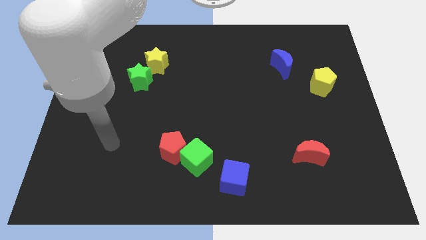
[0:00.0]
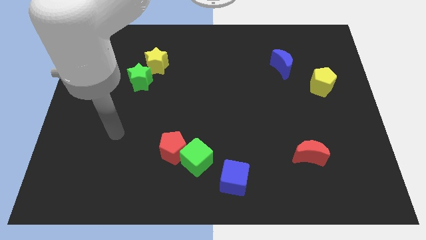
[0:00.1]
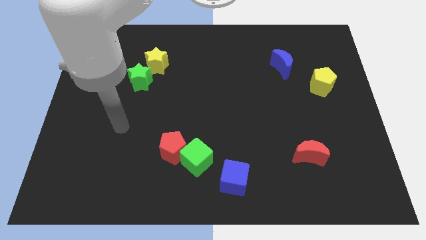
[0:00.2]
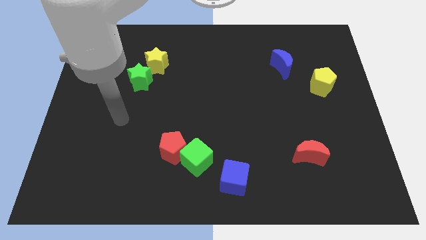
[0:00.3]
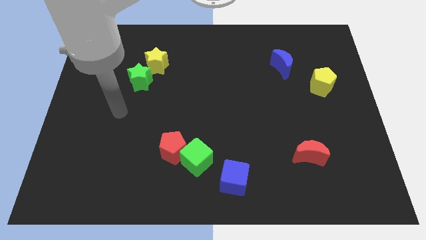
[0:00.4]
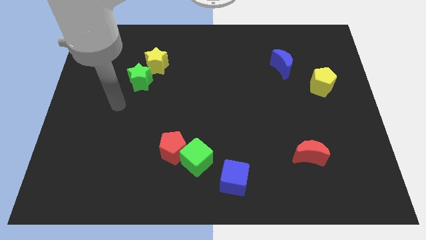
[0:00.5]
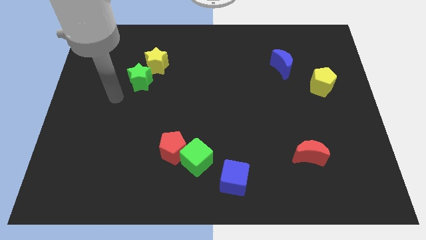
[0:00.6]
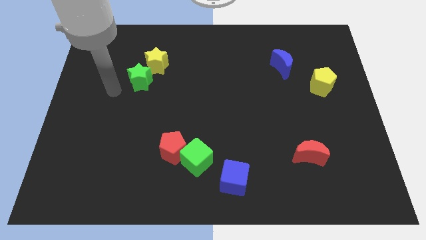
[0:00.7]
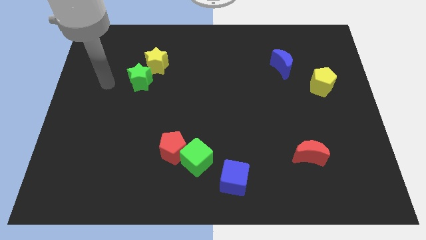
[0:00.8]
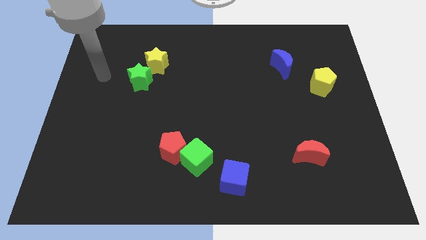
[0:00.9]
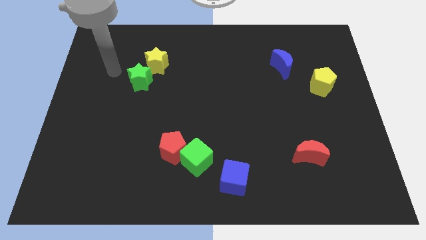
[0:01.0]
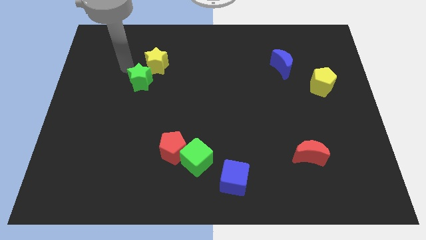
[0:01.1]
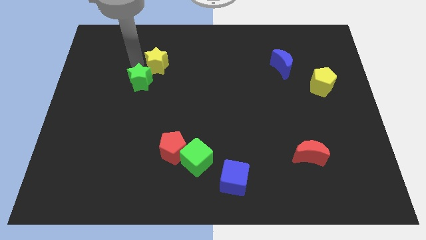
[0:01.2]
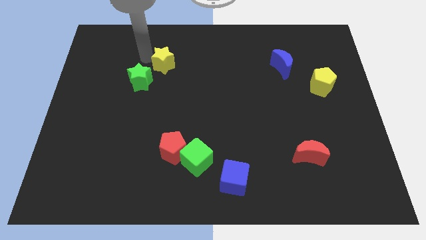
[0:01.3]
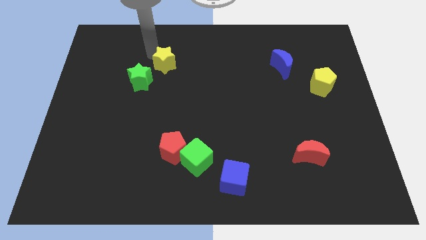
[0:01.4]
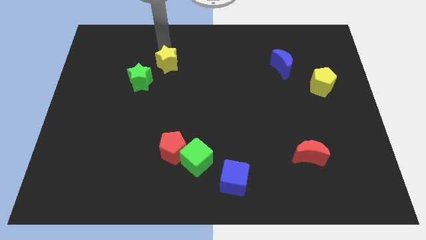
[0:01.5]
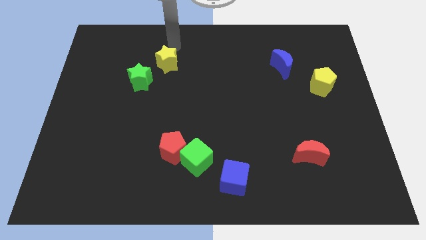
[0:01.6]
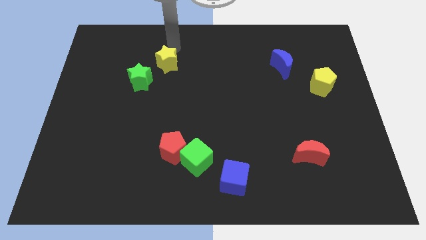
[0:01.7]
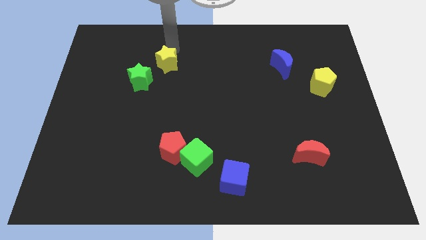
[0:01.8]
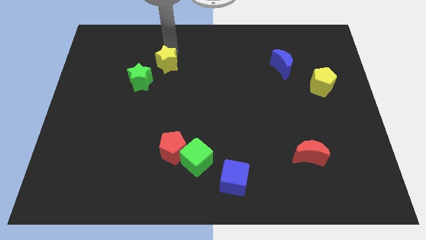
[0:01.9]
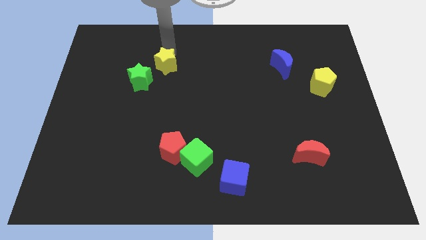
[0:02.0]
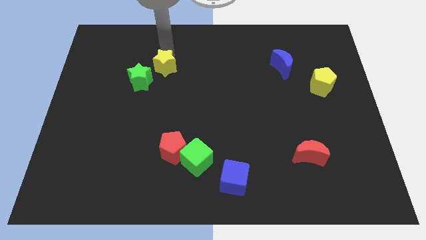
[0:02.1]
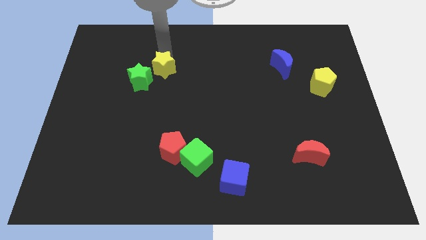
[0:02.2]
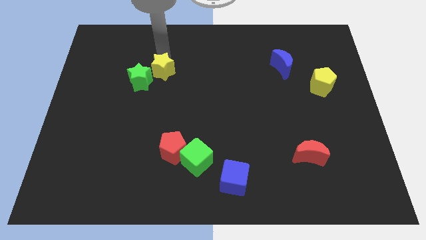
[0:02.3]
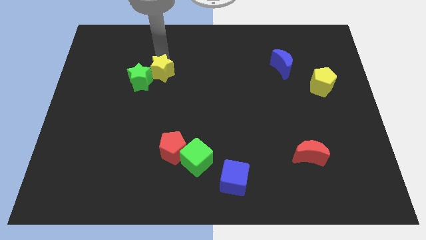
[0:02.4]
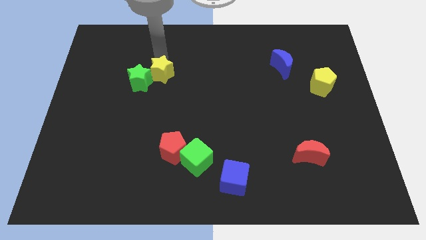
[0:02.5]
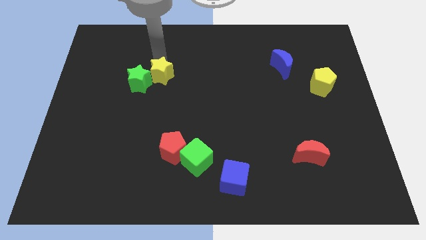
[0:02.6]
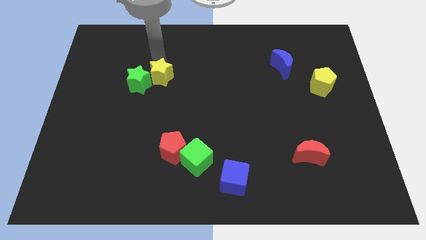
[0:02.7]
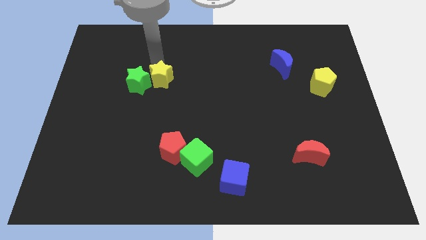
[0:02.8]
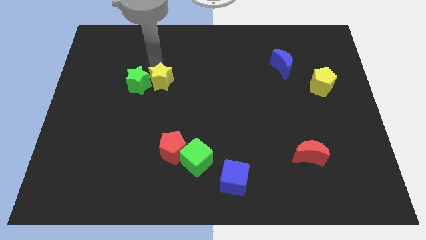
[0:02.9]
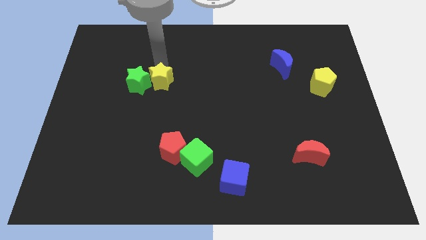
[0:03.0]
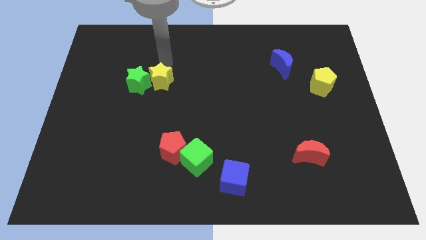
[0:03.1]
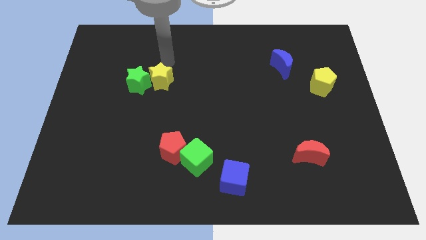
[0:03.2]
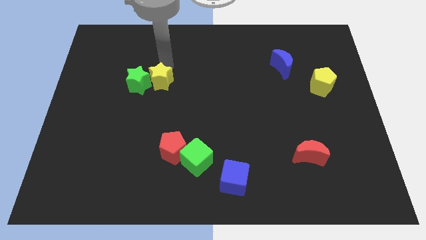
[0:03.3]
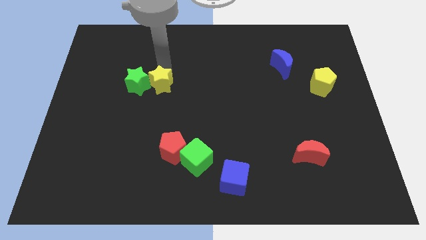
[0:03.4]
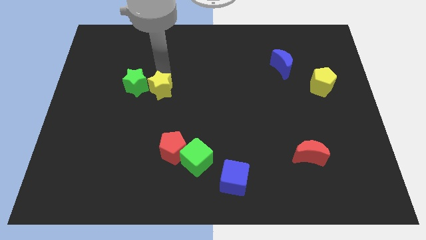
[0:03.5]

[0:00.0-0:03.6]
push the yellow star a bit down

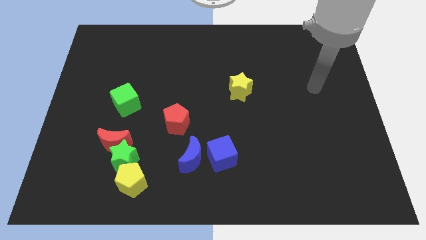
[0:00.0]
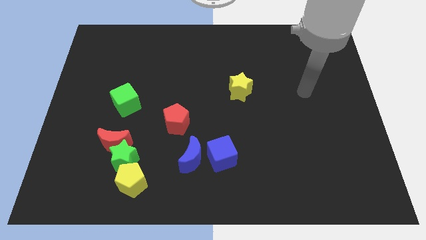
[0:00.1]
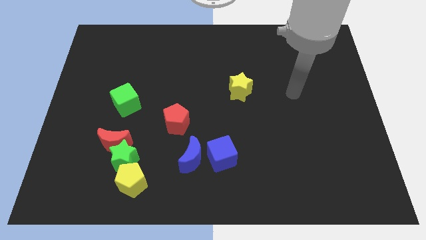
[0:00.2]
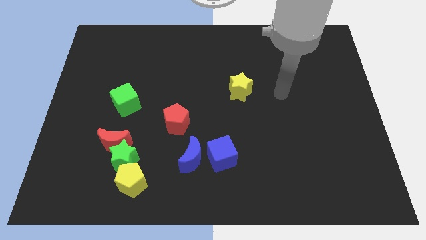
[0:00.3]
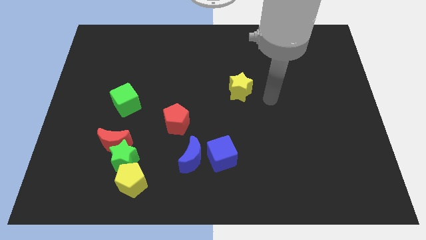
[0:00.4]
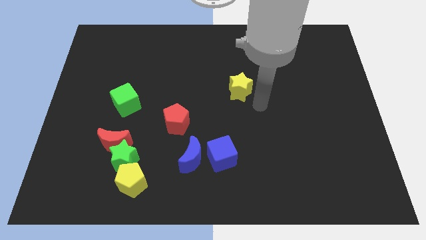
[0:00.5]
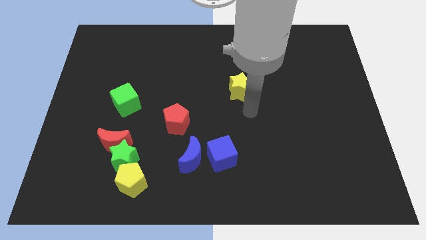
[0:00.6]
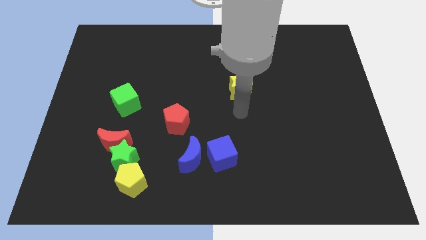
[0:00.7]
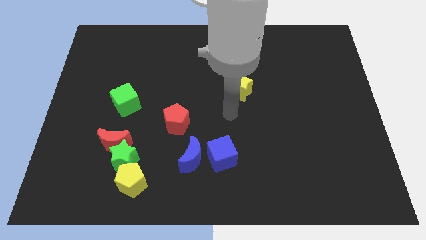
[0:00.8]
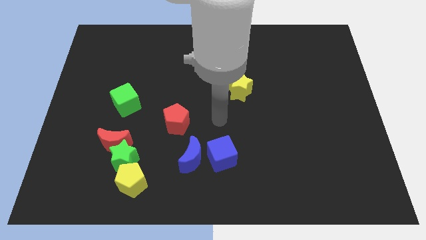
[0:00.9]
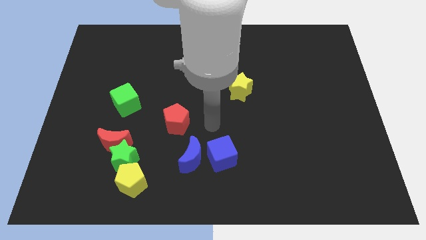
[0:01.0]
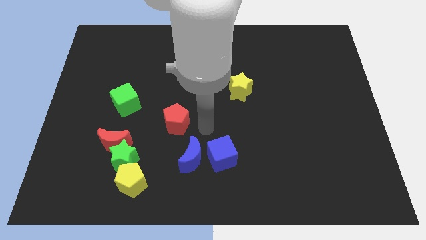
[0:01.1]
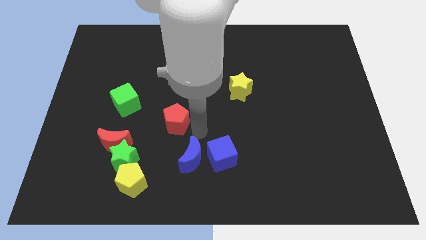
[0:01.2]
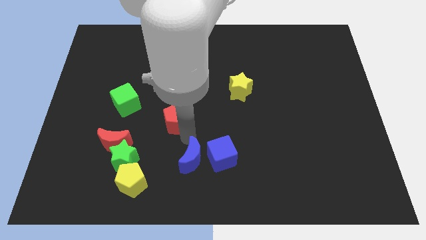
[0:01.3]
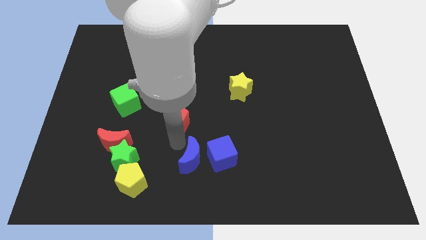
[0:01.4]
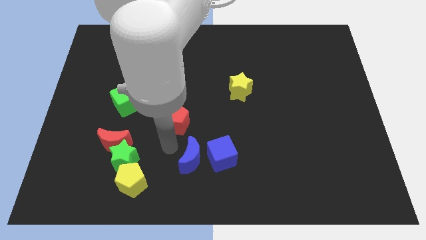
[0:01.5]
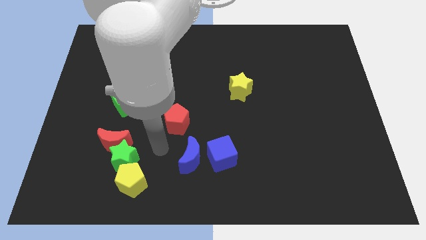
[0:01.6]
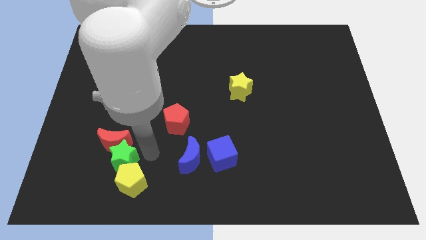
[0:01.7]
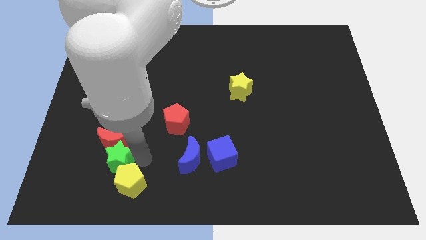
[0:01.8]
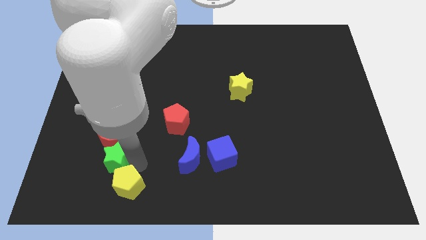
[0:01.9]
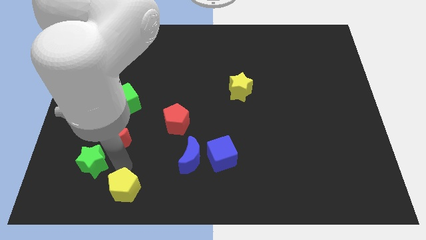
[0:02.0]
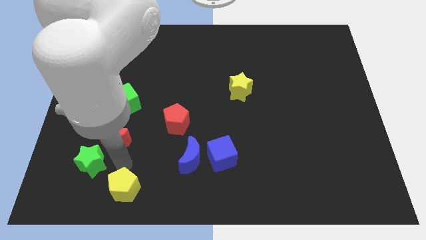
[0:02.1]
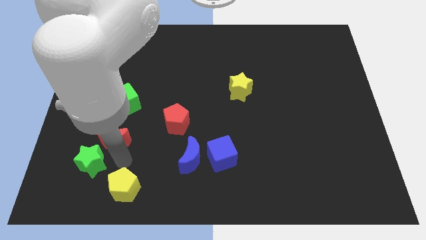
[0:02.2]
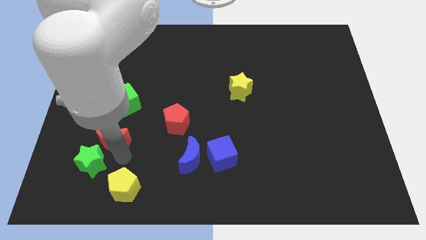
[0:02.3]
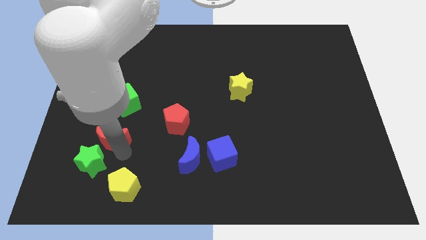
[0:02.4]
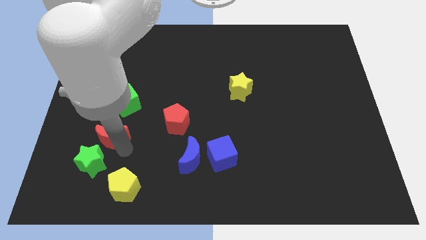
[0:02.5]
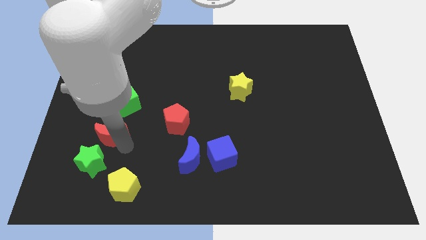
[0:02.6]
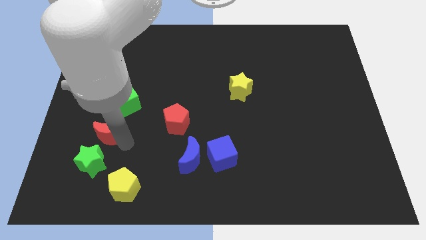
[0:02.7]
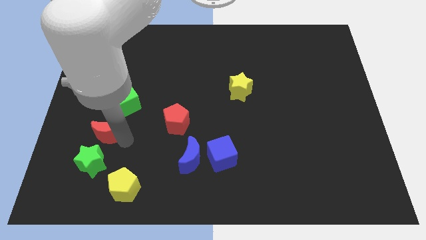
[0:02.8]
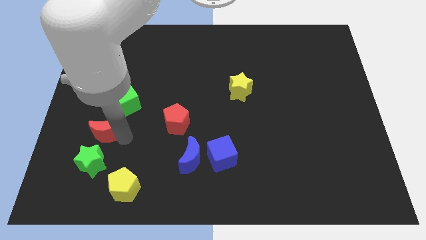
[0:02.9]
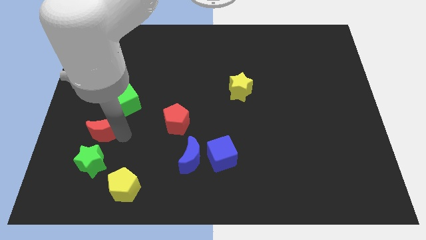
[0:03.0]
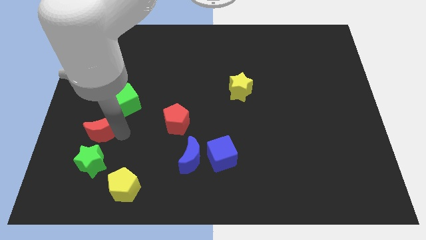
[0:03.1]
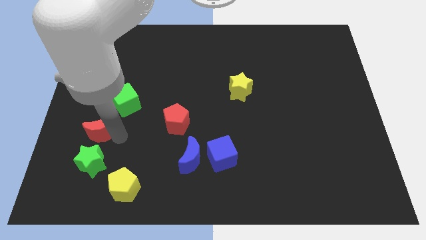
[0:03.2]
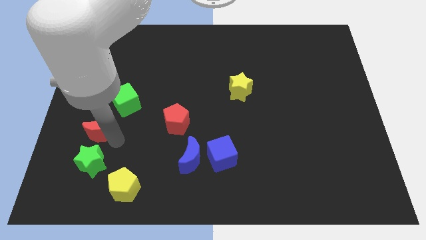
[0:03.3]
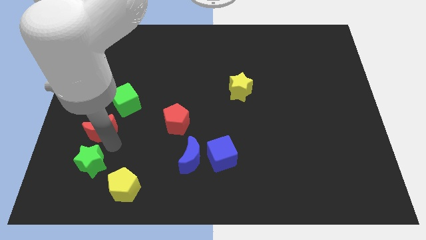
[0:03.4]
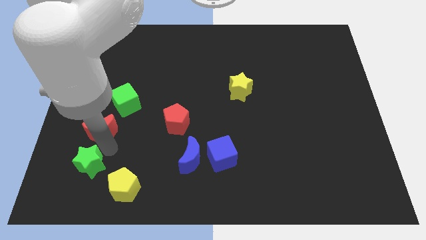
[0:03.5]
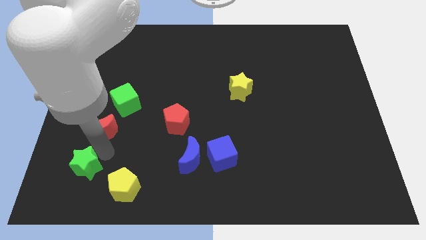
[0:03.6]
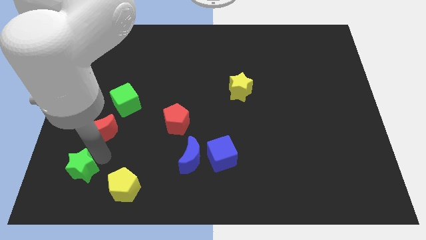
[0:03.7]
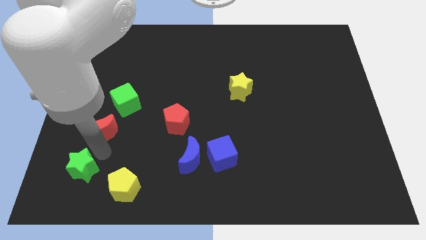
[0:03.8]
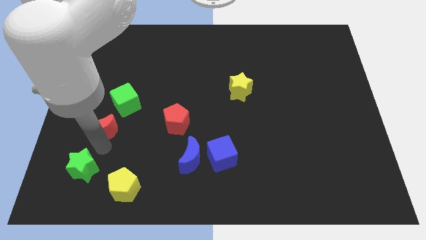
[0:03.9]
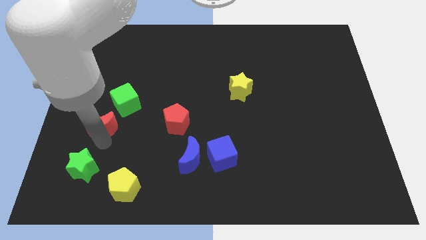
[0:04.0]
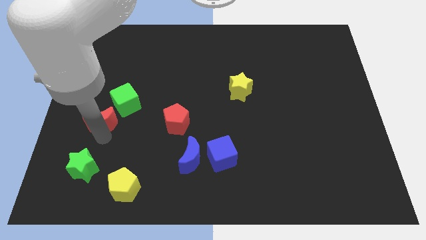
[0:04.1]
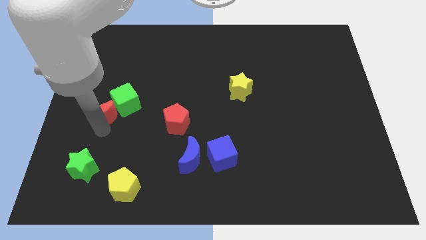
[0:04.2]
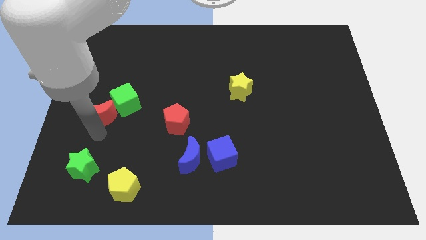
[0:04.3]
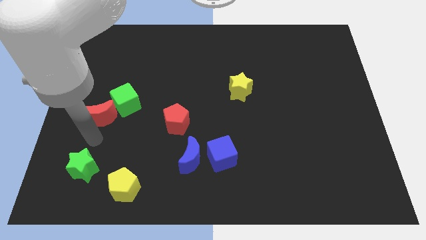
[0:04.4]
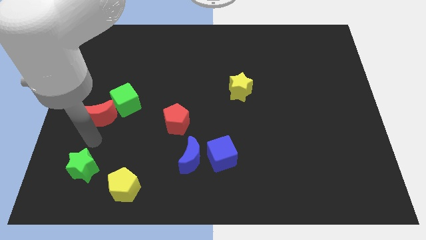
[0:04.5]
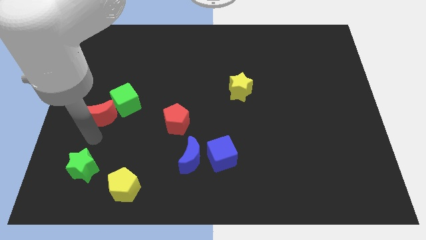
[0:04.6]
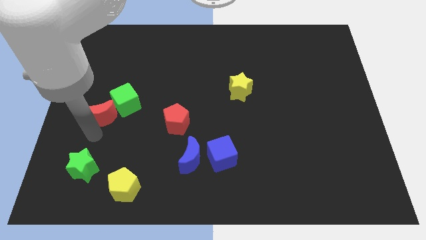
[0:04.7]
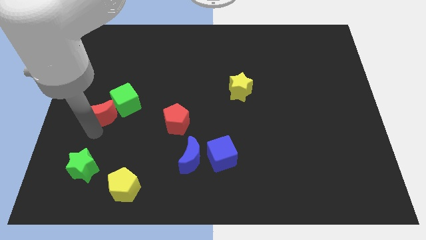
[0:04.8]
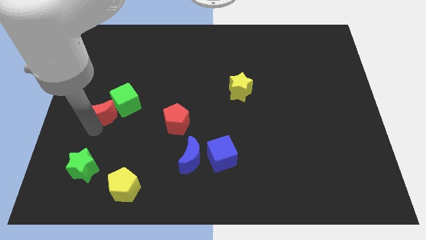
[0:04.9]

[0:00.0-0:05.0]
move the red moon a little bit upwards
